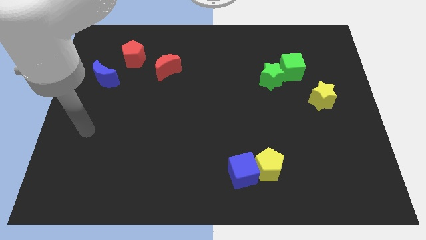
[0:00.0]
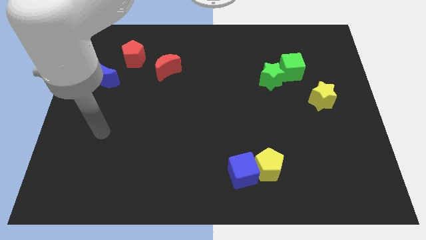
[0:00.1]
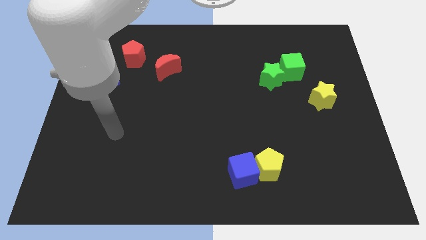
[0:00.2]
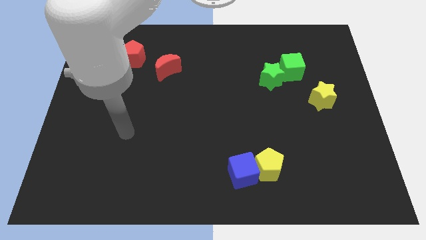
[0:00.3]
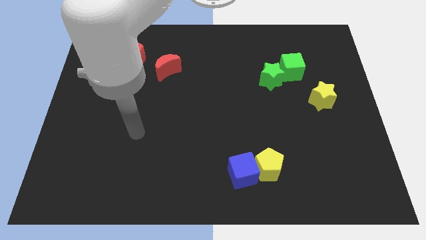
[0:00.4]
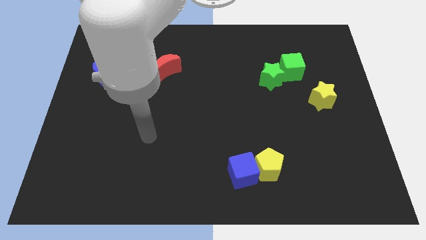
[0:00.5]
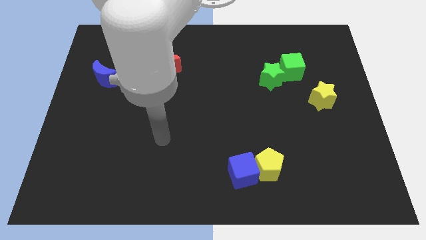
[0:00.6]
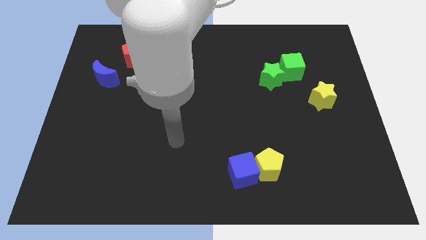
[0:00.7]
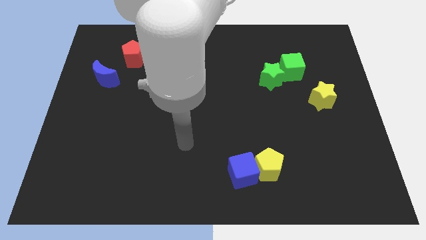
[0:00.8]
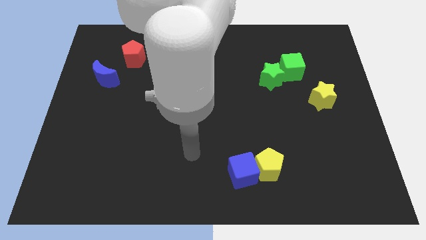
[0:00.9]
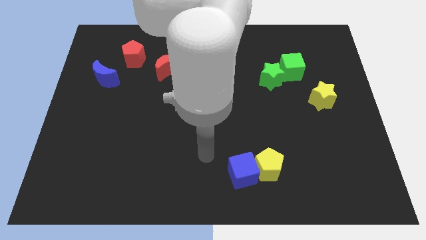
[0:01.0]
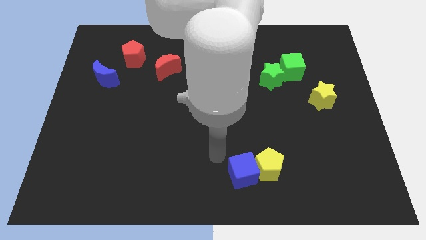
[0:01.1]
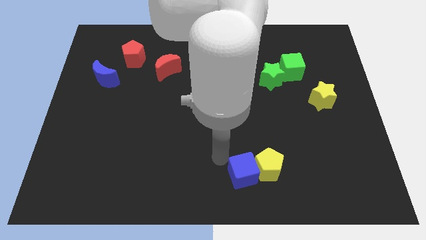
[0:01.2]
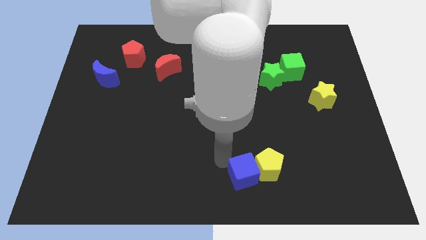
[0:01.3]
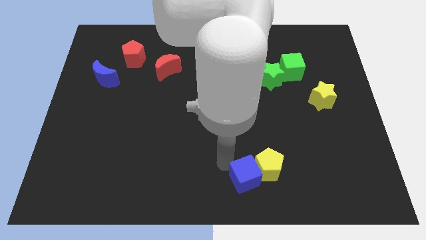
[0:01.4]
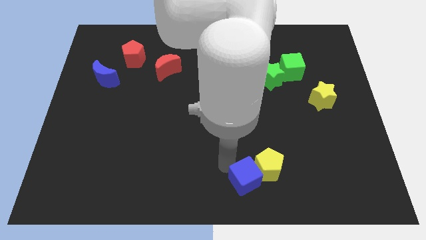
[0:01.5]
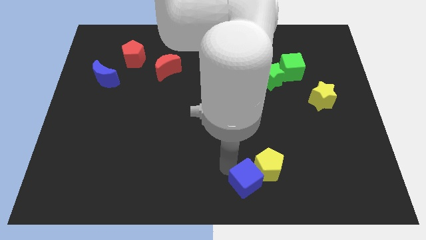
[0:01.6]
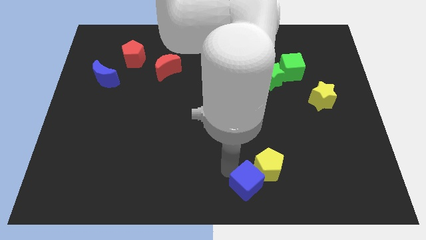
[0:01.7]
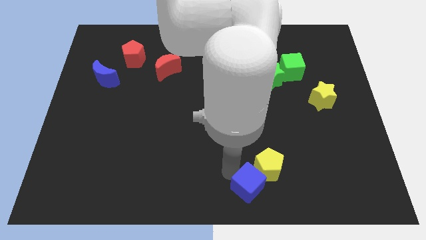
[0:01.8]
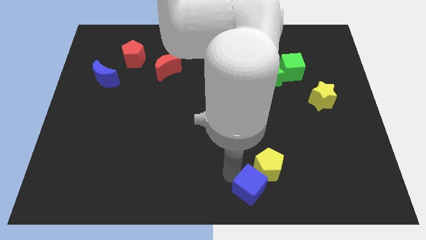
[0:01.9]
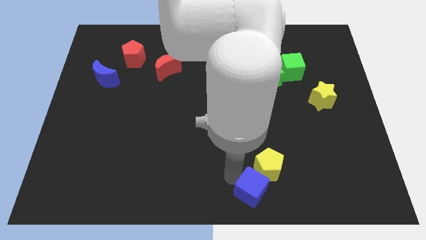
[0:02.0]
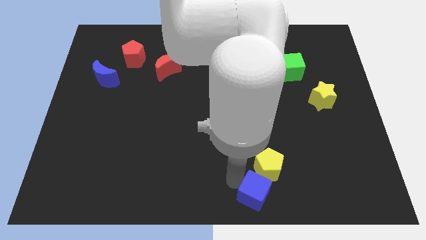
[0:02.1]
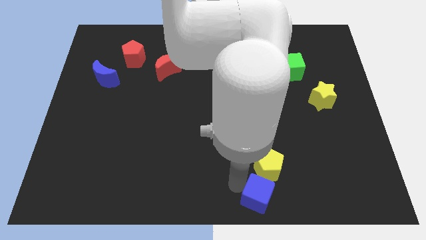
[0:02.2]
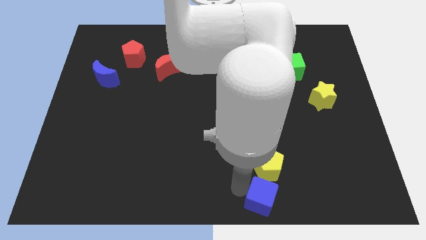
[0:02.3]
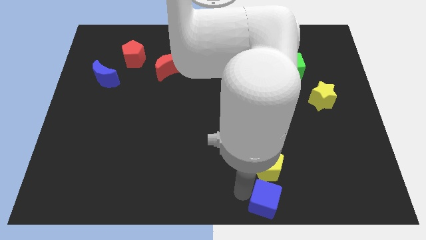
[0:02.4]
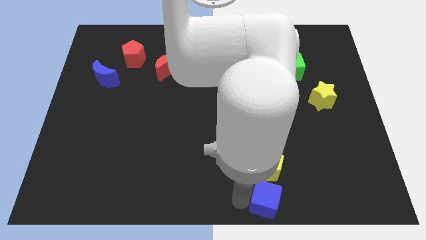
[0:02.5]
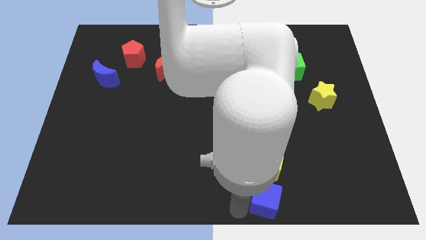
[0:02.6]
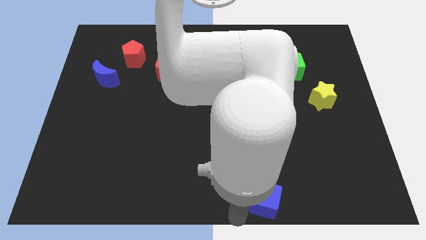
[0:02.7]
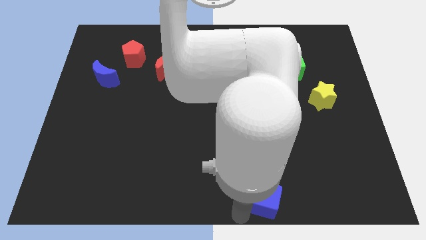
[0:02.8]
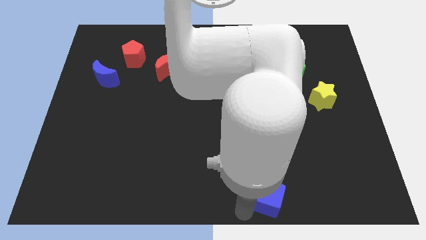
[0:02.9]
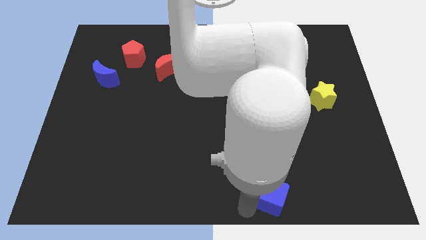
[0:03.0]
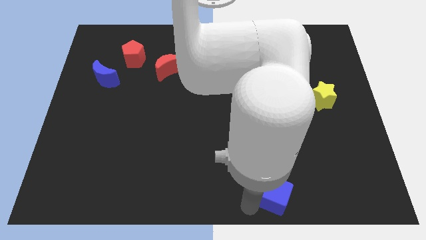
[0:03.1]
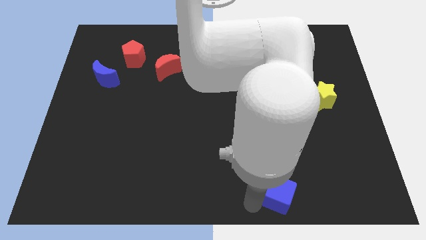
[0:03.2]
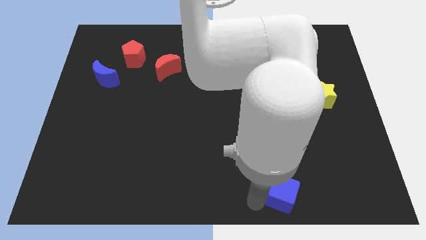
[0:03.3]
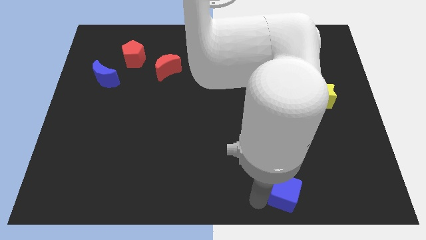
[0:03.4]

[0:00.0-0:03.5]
slightly slide the blue cube to the right

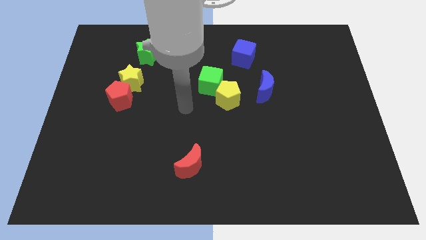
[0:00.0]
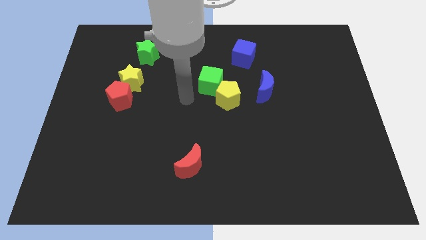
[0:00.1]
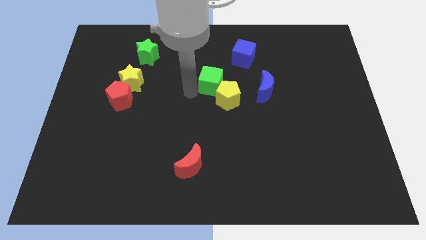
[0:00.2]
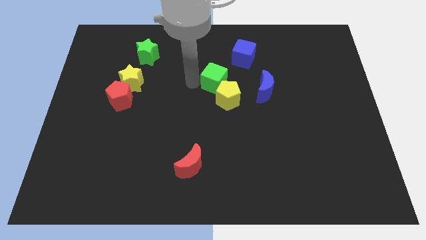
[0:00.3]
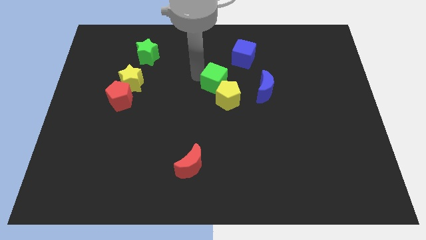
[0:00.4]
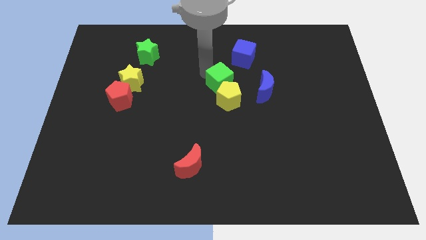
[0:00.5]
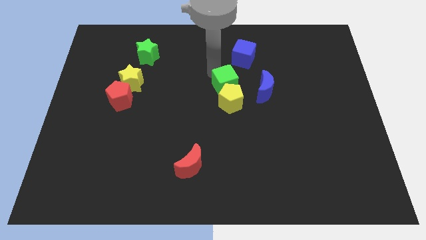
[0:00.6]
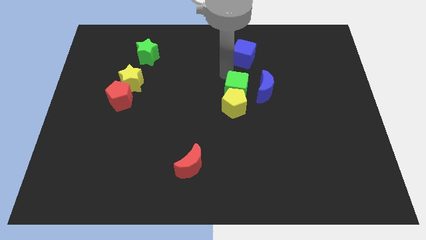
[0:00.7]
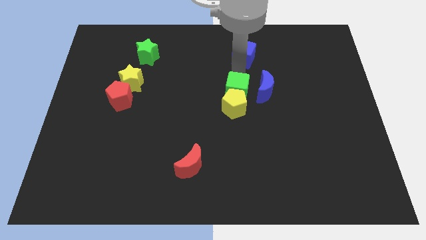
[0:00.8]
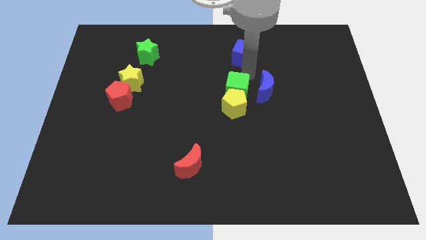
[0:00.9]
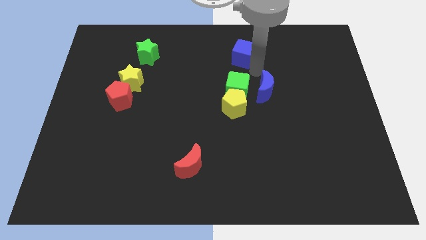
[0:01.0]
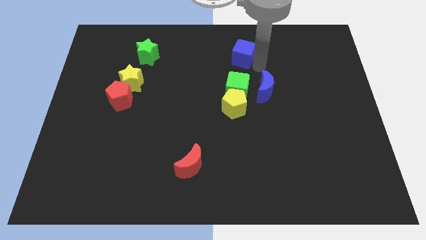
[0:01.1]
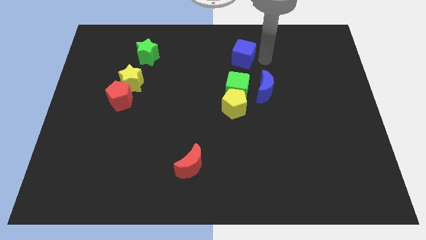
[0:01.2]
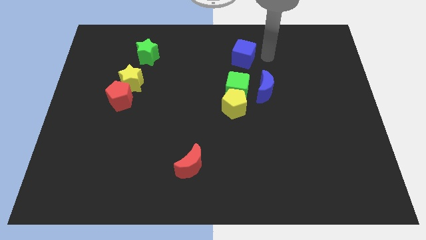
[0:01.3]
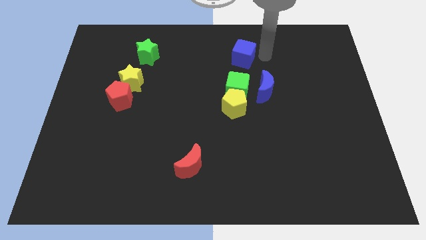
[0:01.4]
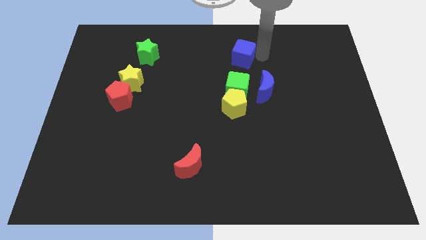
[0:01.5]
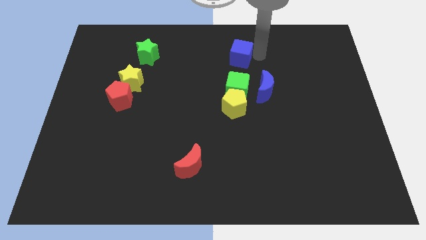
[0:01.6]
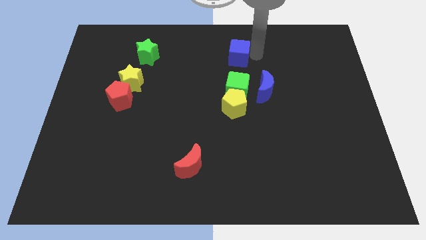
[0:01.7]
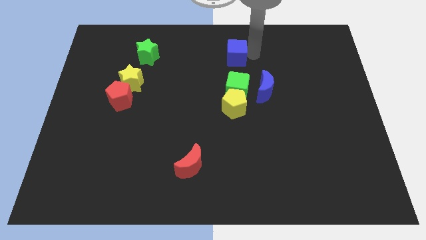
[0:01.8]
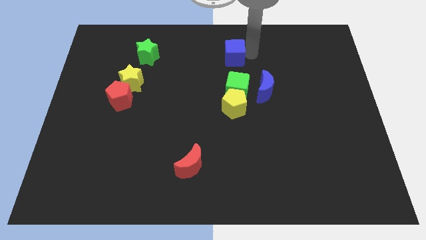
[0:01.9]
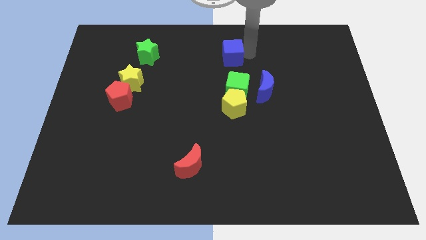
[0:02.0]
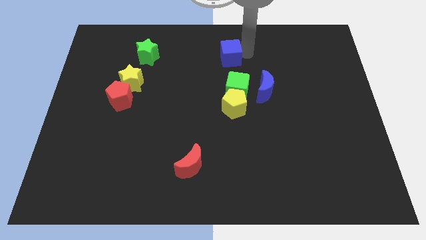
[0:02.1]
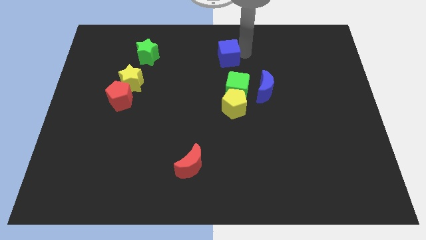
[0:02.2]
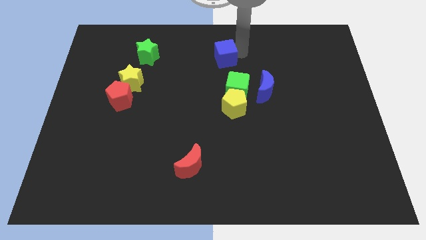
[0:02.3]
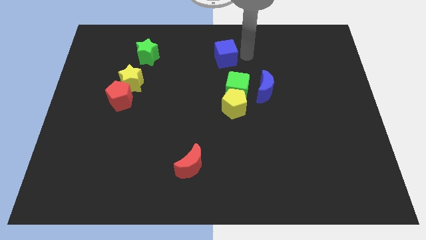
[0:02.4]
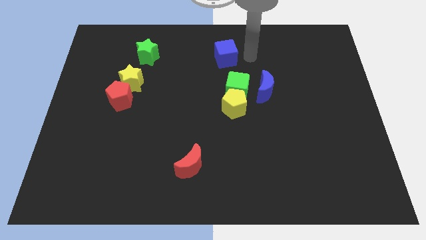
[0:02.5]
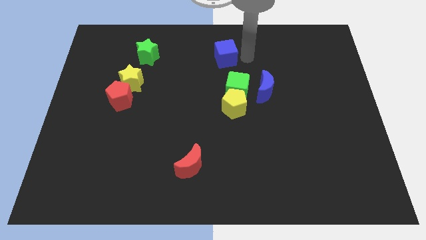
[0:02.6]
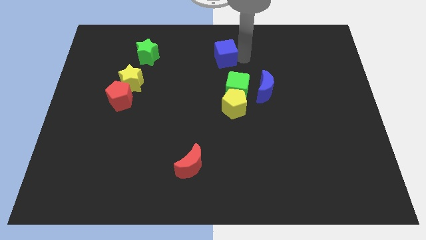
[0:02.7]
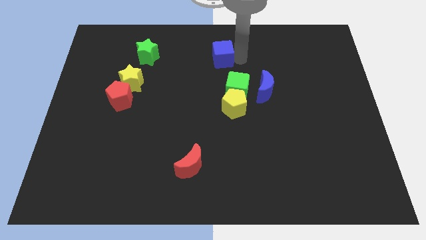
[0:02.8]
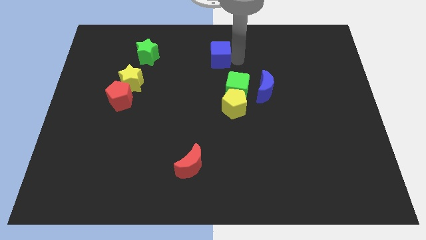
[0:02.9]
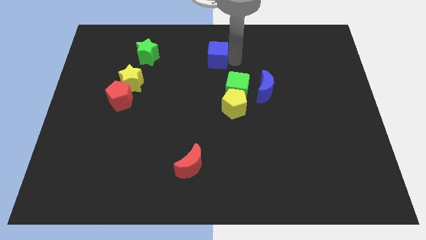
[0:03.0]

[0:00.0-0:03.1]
slightly slide the blue cube to the left

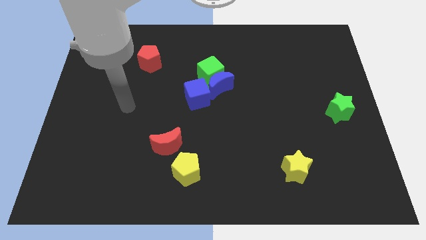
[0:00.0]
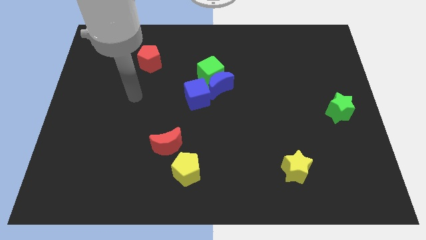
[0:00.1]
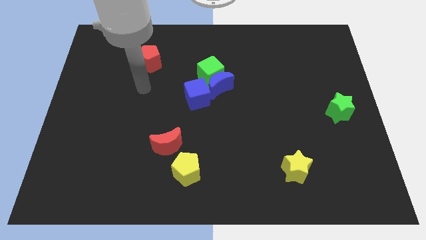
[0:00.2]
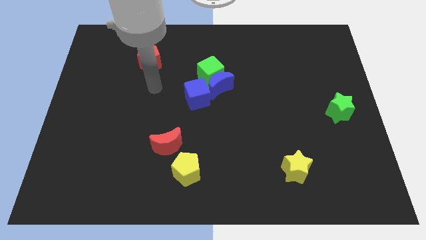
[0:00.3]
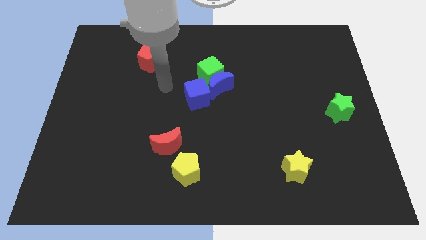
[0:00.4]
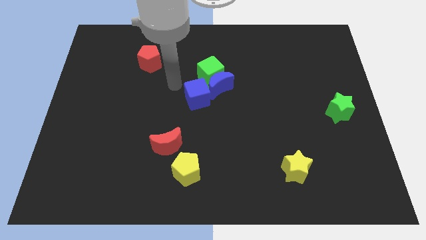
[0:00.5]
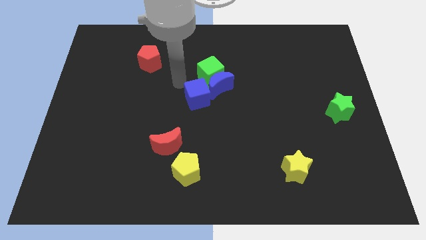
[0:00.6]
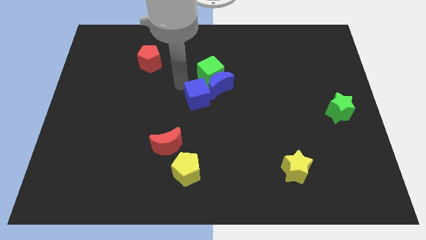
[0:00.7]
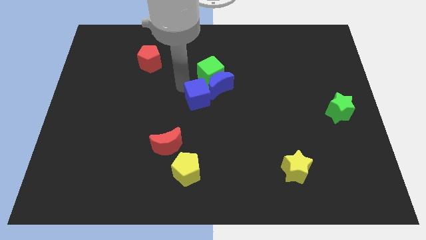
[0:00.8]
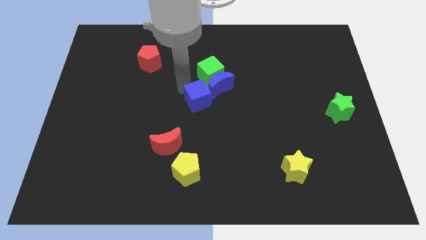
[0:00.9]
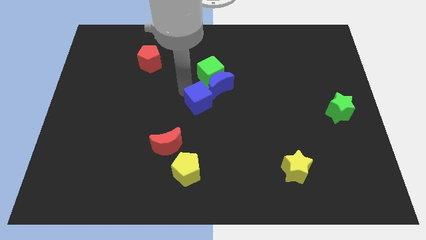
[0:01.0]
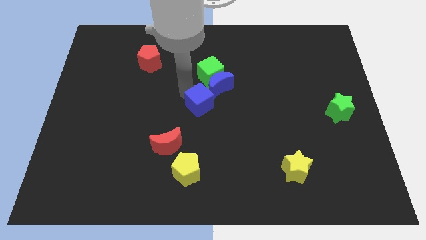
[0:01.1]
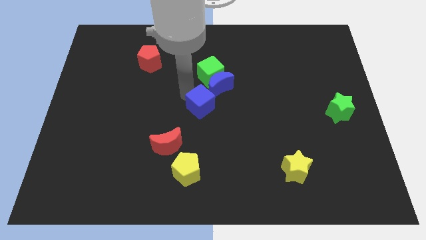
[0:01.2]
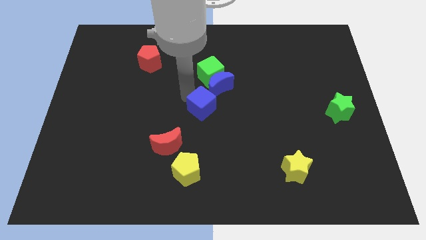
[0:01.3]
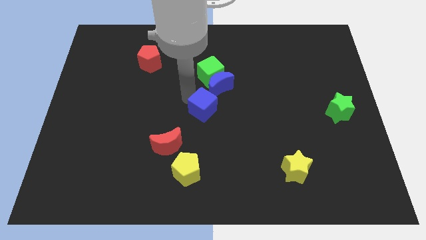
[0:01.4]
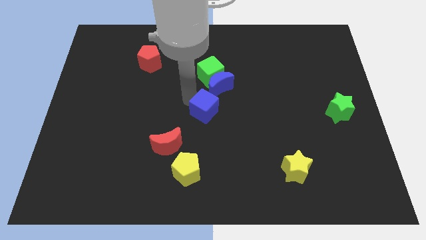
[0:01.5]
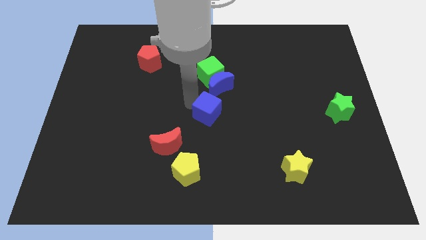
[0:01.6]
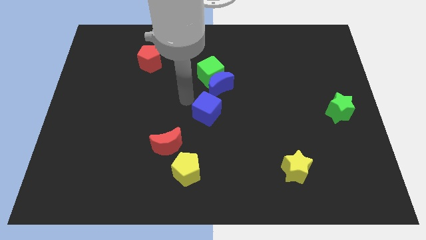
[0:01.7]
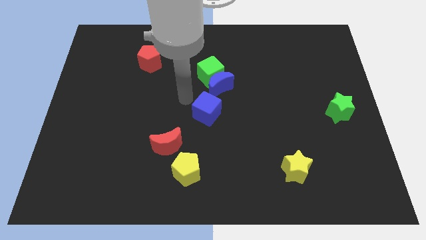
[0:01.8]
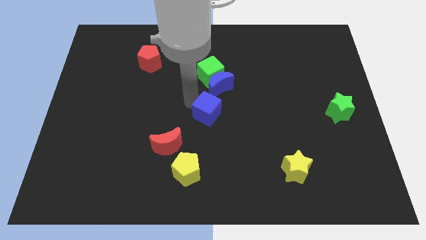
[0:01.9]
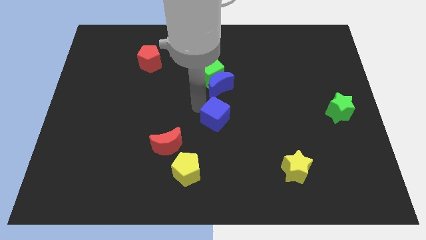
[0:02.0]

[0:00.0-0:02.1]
push the blue cube diagonally downwards and to the right a bit
